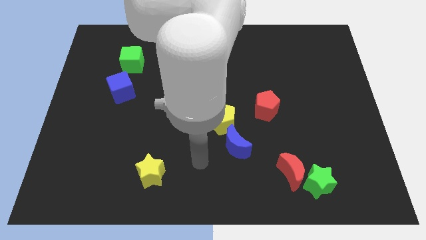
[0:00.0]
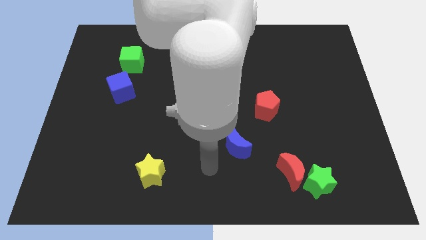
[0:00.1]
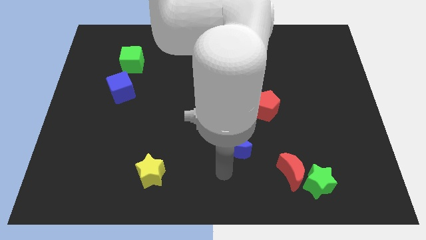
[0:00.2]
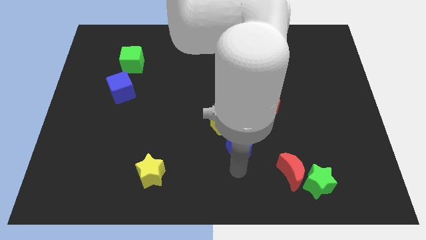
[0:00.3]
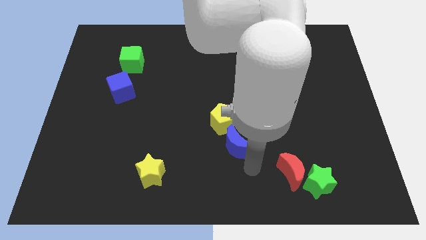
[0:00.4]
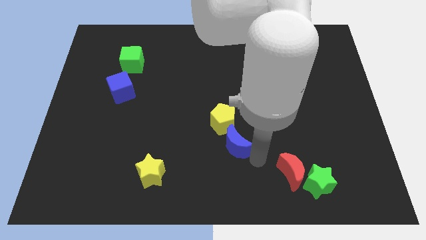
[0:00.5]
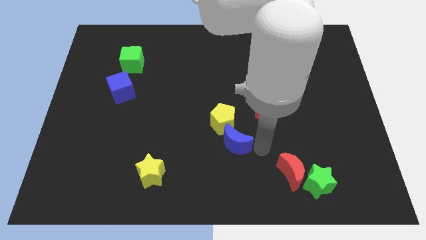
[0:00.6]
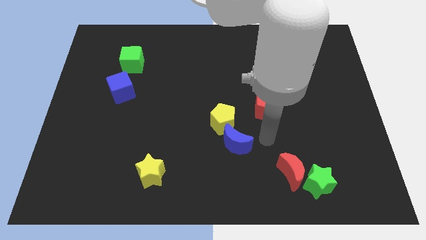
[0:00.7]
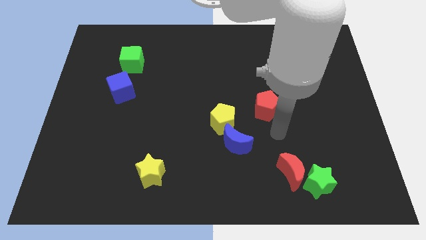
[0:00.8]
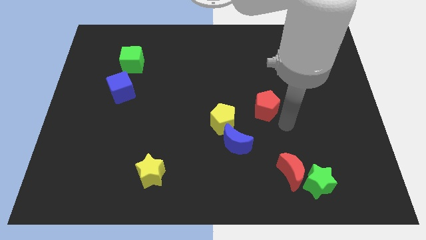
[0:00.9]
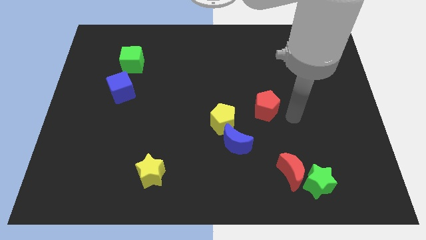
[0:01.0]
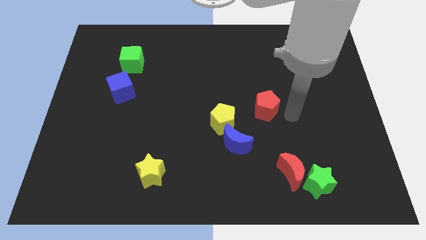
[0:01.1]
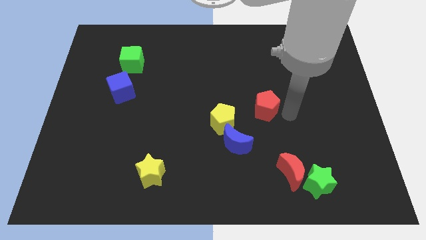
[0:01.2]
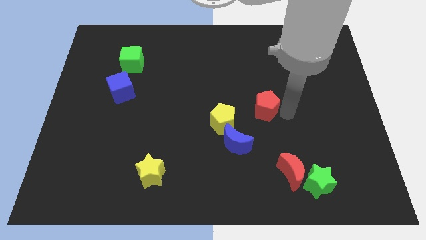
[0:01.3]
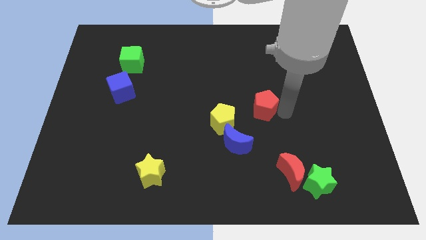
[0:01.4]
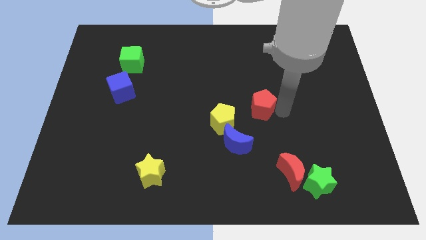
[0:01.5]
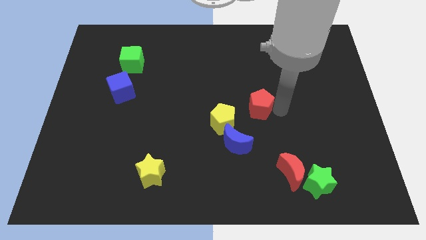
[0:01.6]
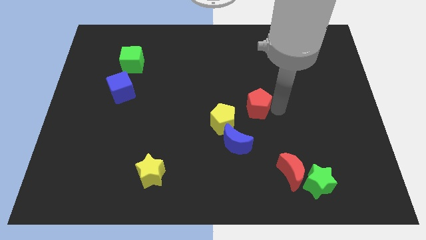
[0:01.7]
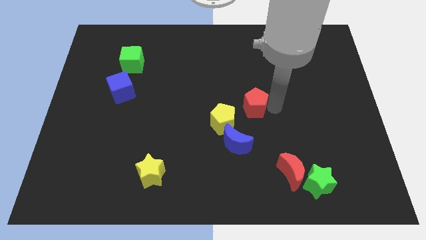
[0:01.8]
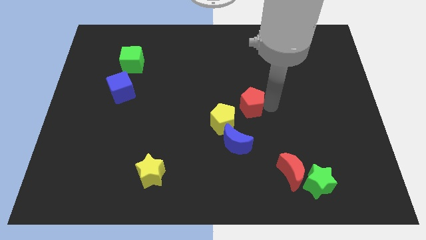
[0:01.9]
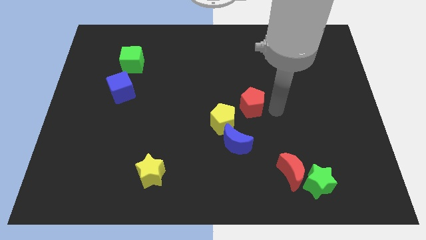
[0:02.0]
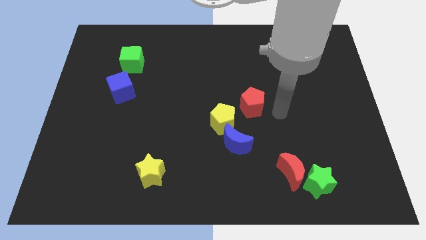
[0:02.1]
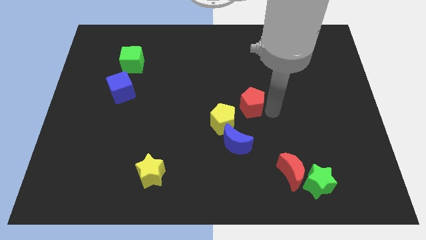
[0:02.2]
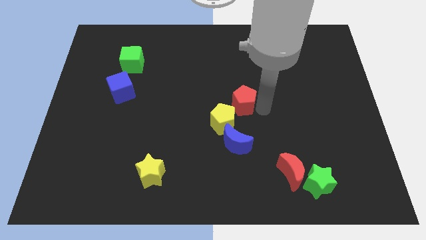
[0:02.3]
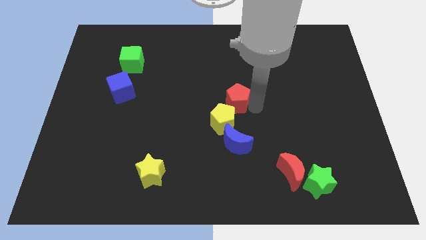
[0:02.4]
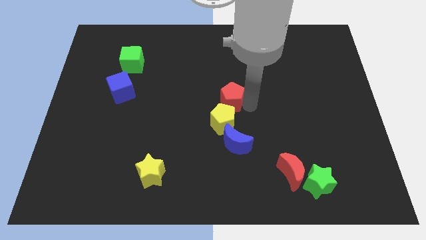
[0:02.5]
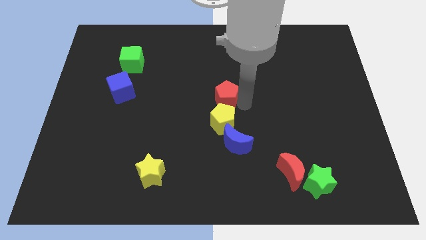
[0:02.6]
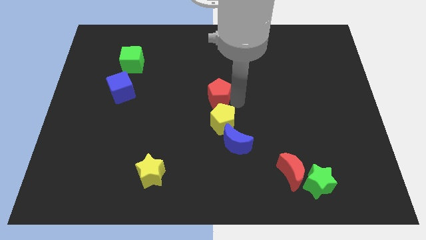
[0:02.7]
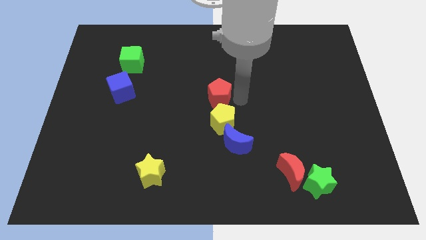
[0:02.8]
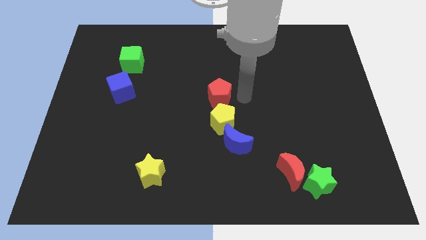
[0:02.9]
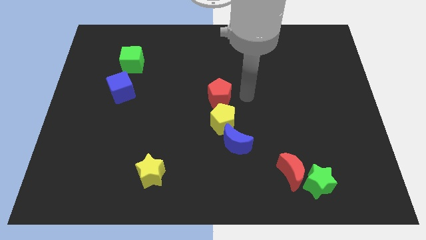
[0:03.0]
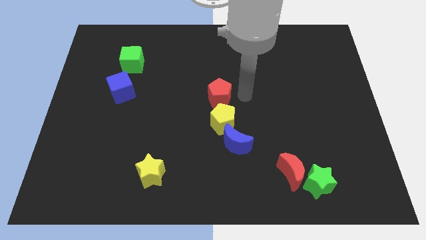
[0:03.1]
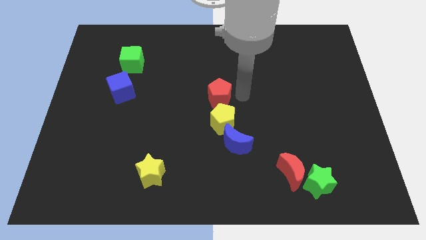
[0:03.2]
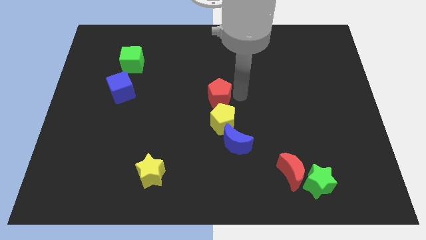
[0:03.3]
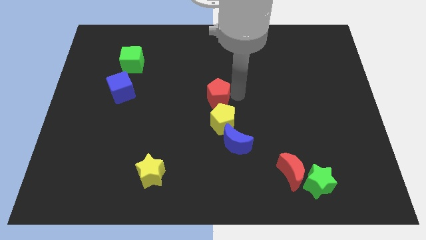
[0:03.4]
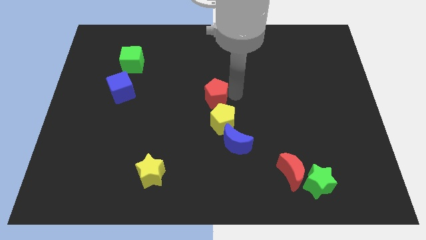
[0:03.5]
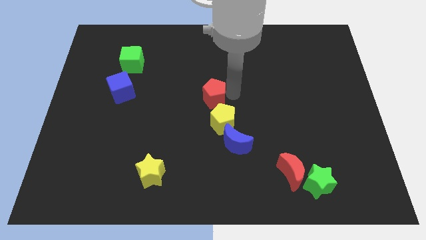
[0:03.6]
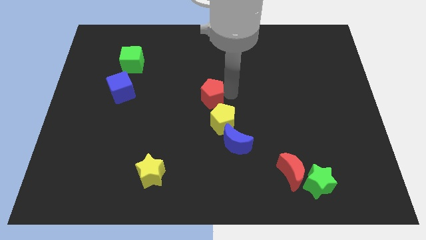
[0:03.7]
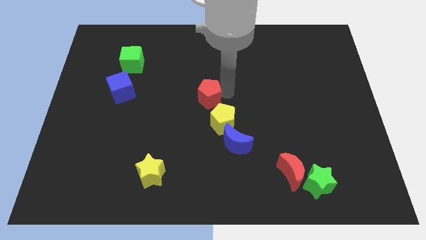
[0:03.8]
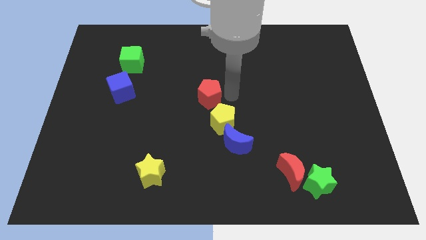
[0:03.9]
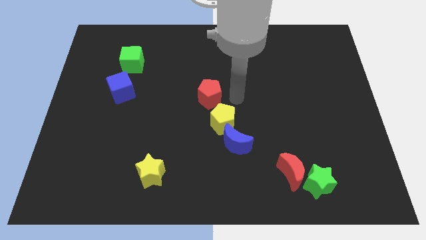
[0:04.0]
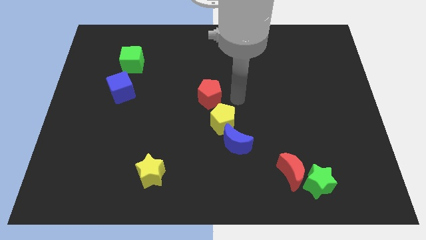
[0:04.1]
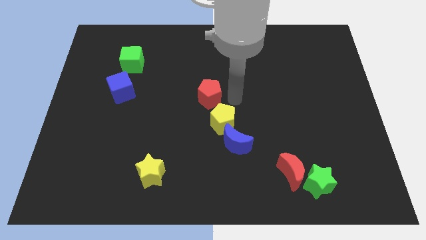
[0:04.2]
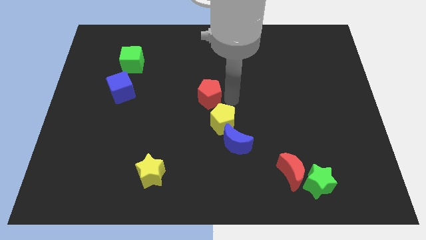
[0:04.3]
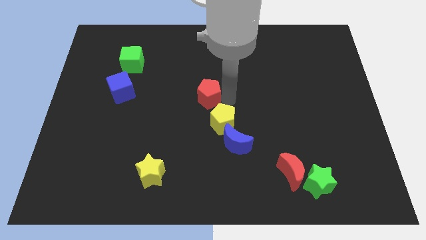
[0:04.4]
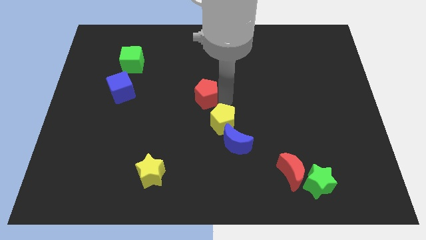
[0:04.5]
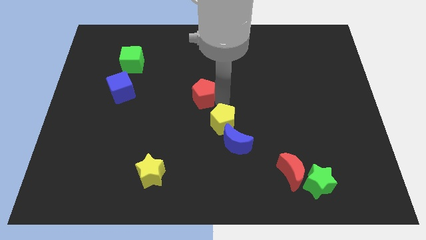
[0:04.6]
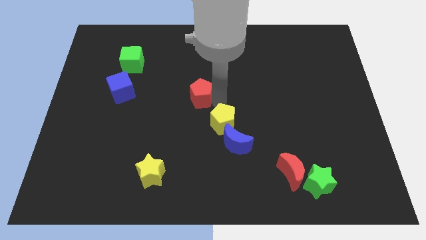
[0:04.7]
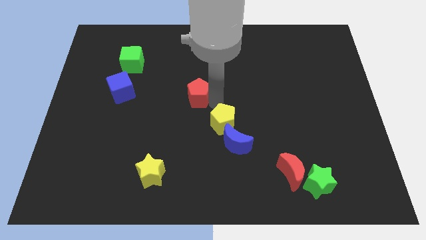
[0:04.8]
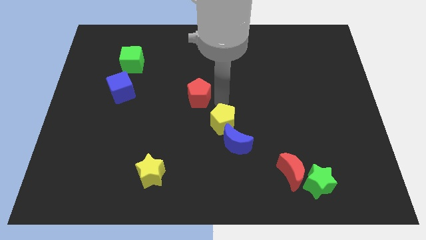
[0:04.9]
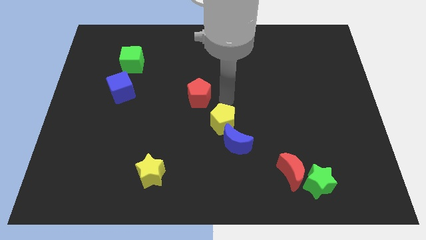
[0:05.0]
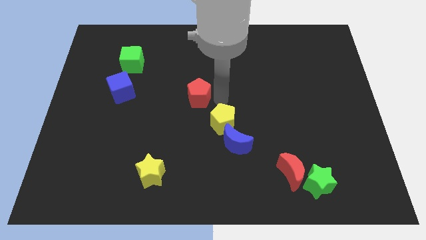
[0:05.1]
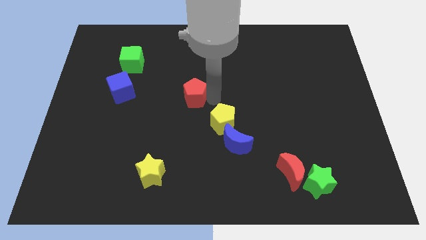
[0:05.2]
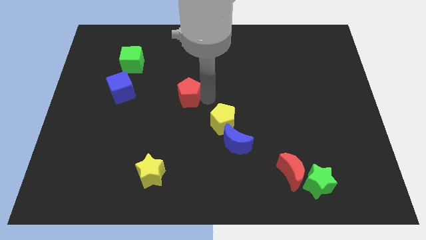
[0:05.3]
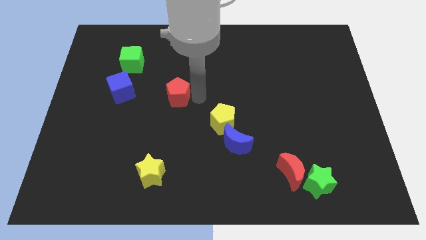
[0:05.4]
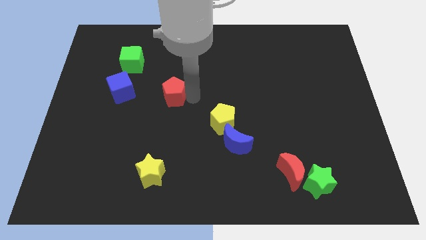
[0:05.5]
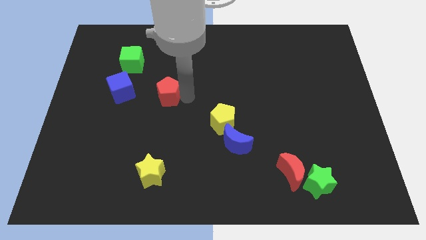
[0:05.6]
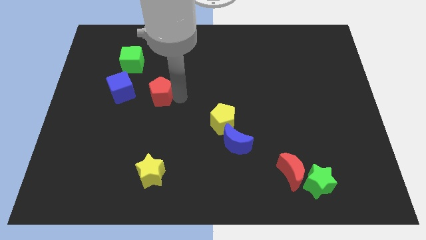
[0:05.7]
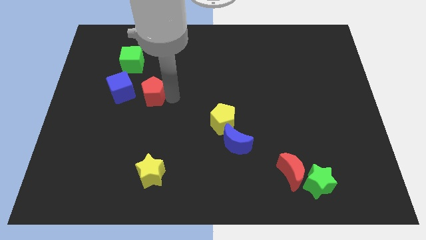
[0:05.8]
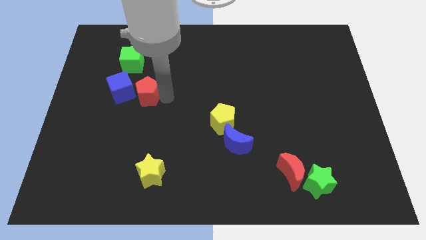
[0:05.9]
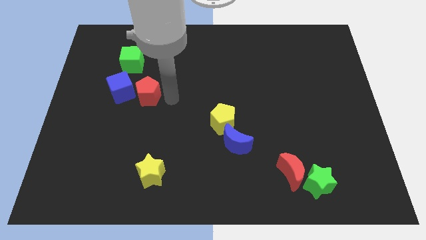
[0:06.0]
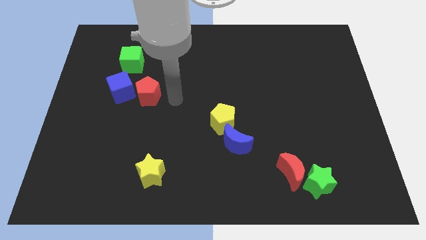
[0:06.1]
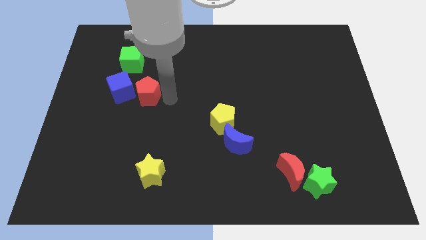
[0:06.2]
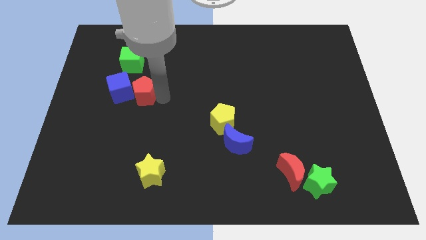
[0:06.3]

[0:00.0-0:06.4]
put the red pentagon next to the blue cube
